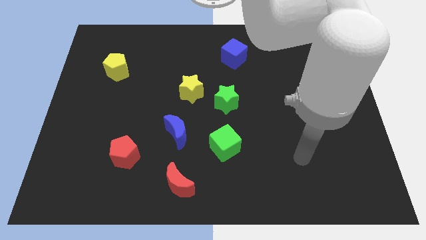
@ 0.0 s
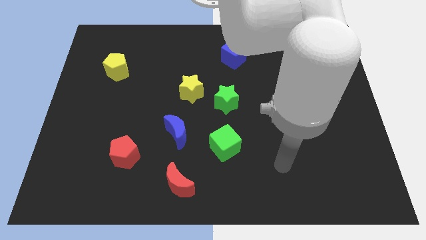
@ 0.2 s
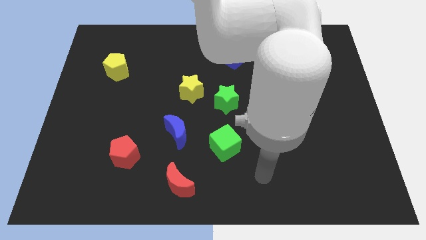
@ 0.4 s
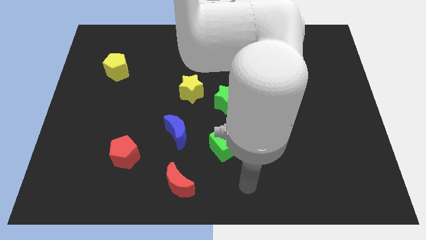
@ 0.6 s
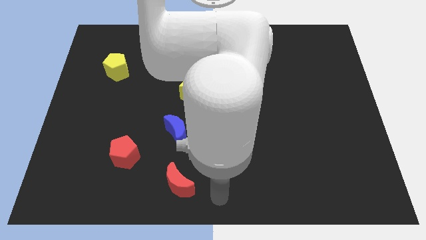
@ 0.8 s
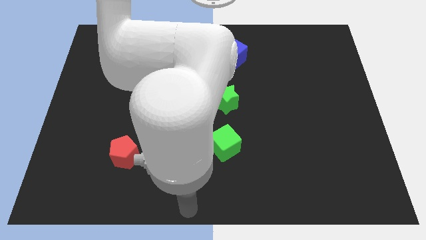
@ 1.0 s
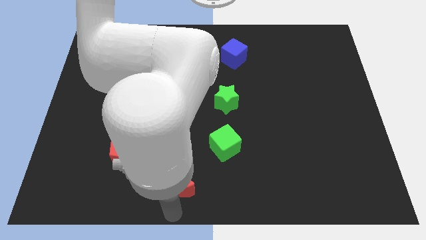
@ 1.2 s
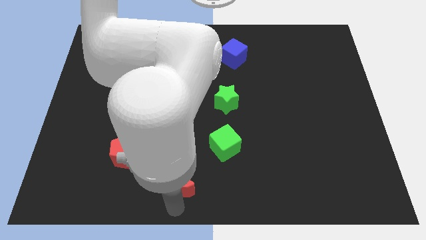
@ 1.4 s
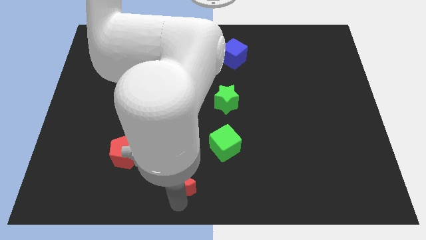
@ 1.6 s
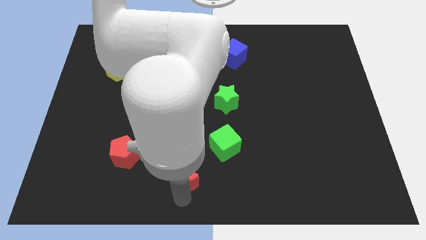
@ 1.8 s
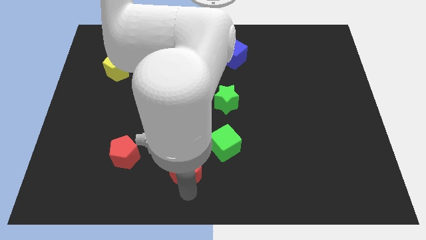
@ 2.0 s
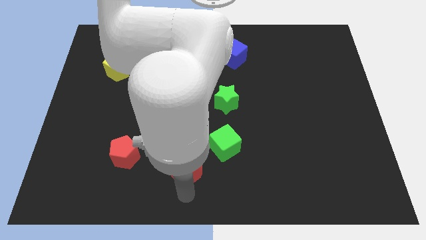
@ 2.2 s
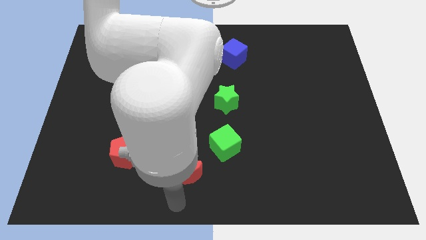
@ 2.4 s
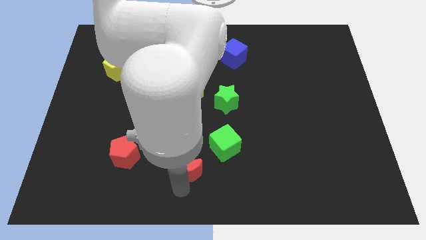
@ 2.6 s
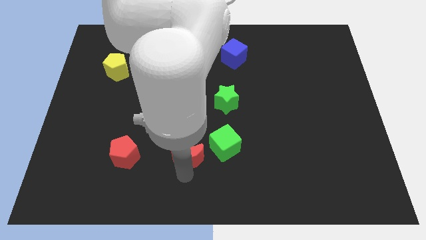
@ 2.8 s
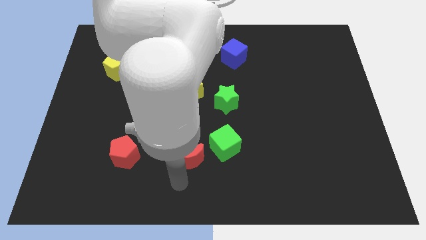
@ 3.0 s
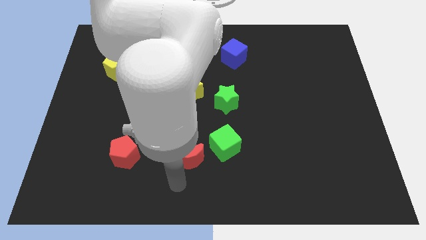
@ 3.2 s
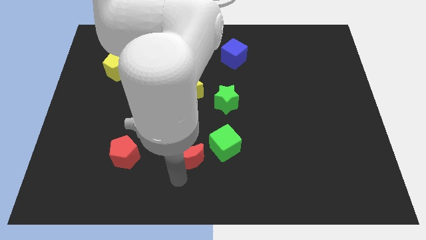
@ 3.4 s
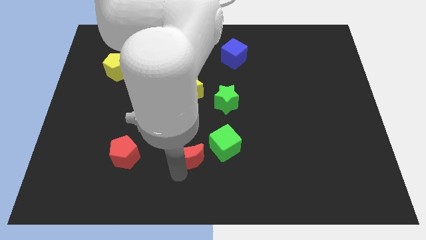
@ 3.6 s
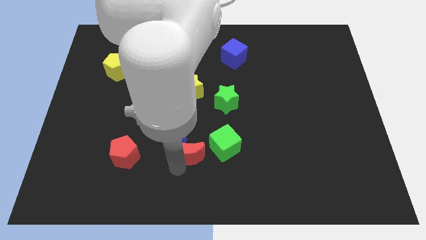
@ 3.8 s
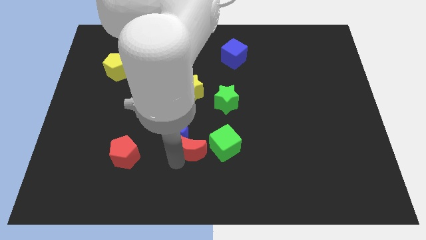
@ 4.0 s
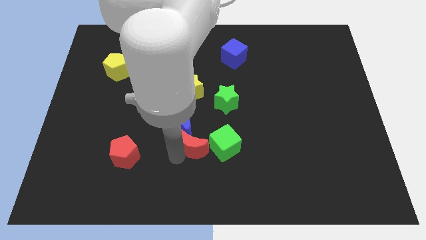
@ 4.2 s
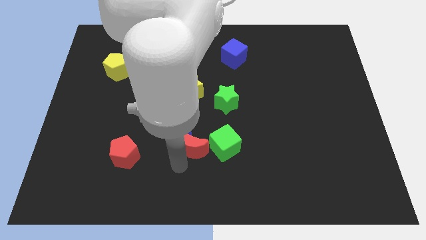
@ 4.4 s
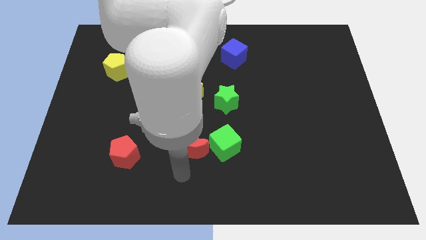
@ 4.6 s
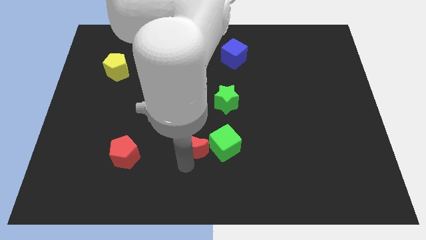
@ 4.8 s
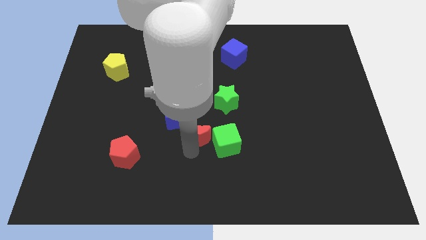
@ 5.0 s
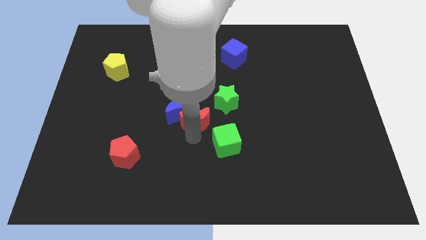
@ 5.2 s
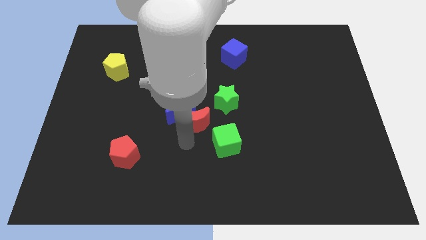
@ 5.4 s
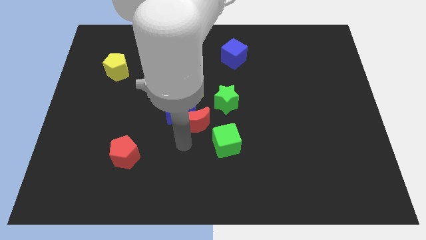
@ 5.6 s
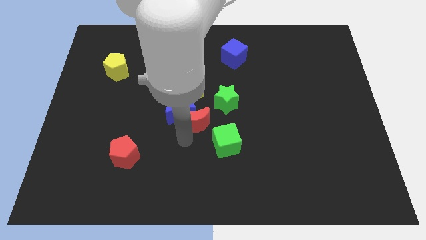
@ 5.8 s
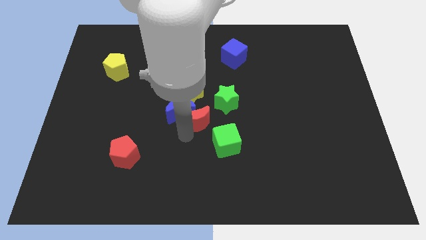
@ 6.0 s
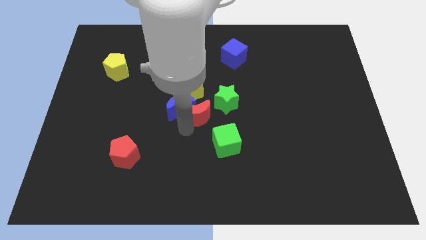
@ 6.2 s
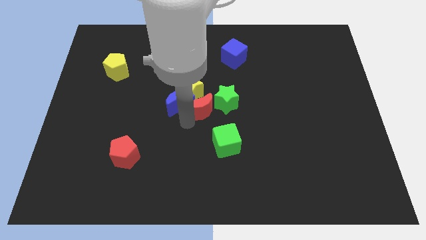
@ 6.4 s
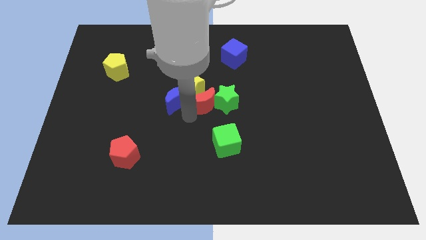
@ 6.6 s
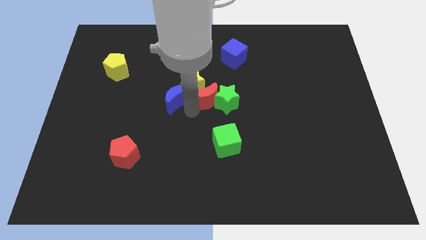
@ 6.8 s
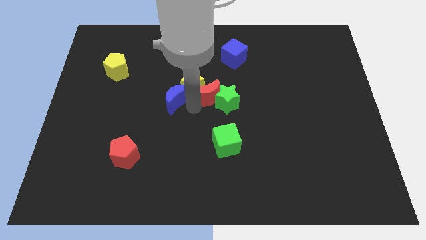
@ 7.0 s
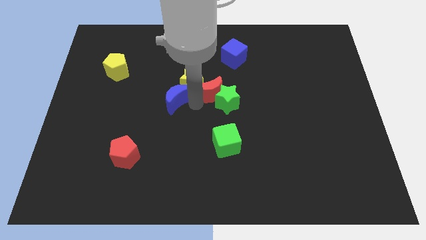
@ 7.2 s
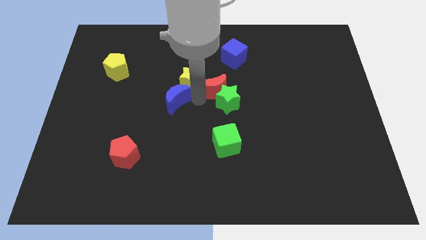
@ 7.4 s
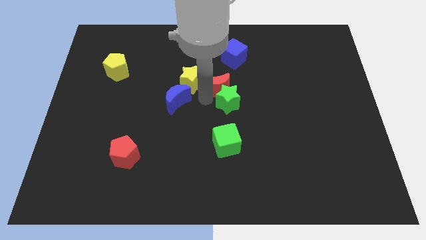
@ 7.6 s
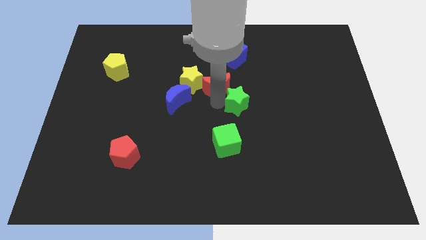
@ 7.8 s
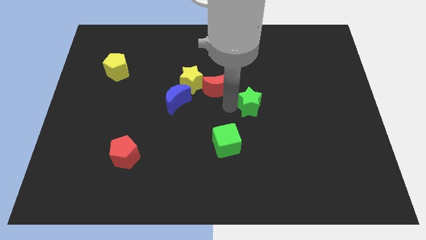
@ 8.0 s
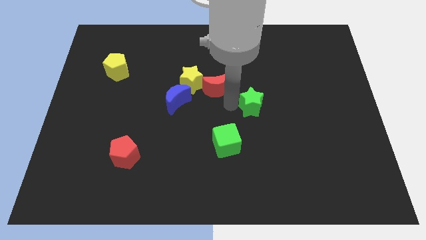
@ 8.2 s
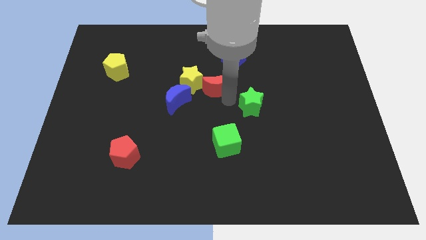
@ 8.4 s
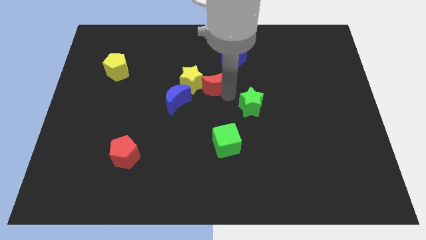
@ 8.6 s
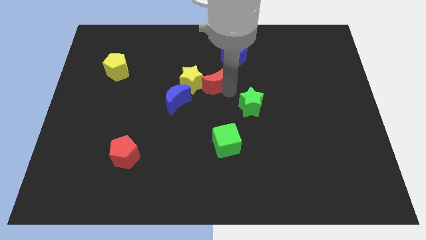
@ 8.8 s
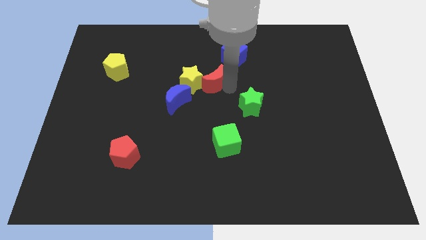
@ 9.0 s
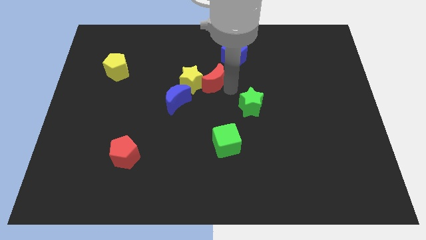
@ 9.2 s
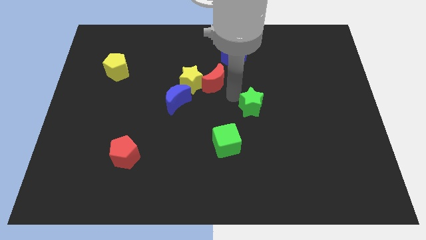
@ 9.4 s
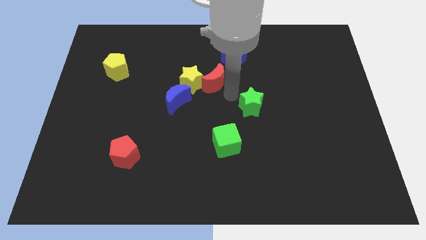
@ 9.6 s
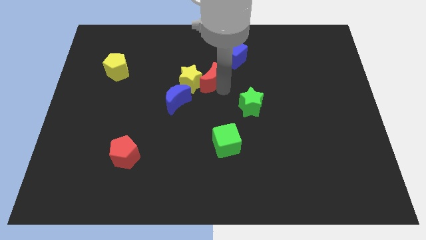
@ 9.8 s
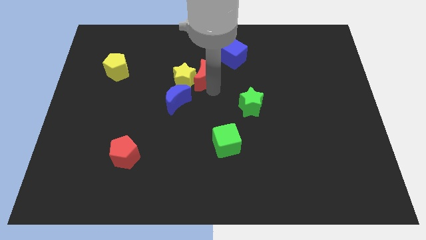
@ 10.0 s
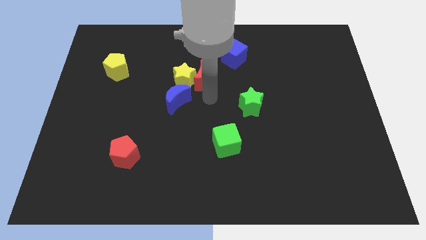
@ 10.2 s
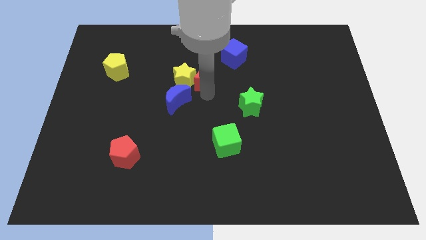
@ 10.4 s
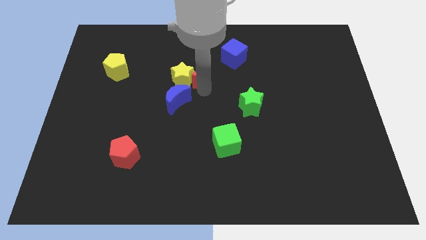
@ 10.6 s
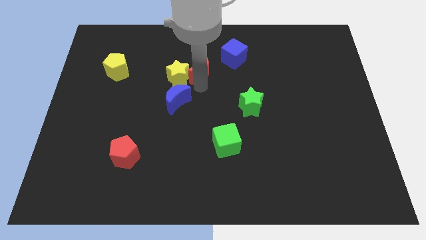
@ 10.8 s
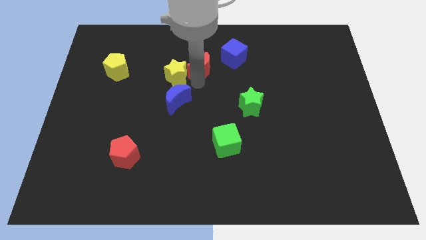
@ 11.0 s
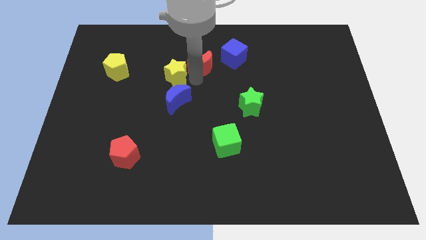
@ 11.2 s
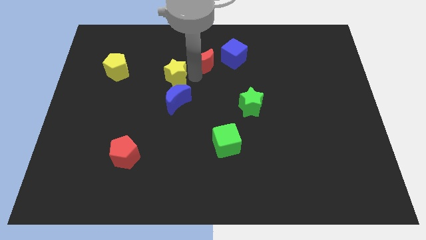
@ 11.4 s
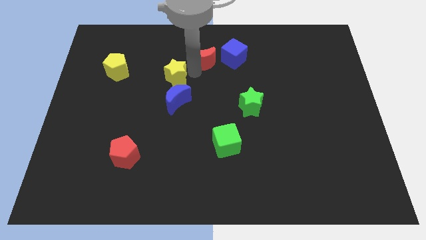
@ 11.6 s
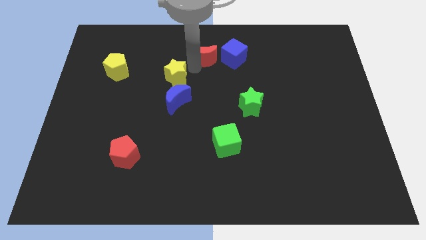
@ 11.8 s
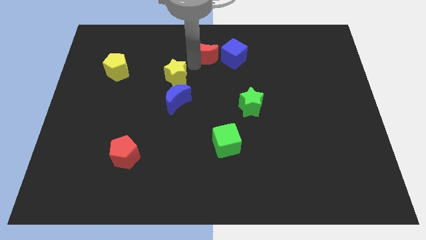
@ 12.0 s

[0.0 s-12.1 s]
slide the red moon to the towards your base
